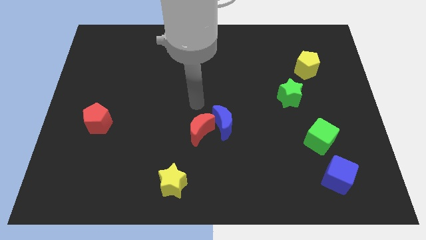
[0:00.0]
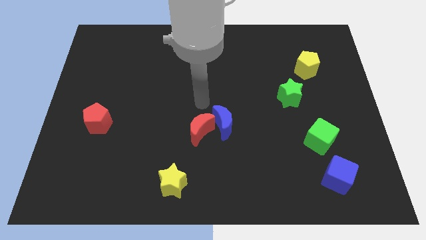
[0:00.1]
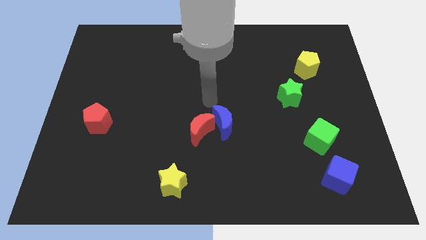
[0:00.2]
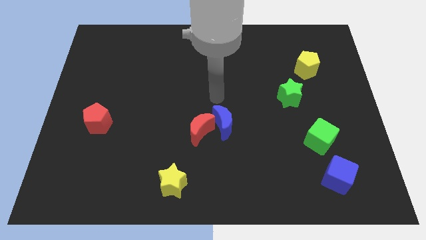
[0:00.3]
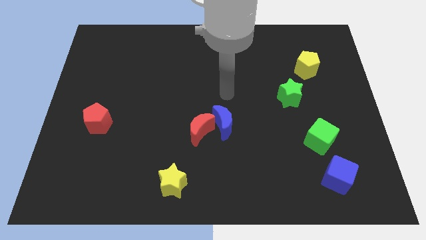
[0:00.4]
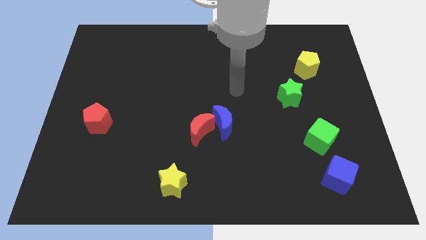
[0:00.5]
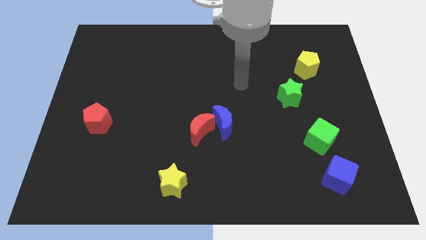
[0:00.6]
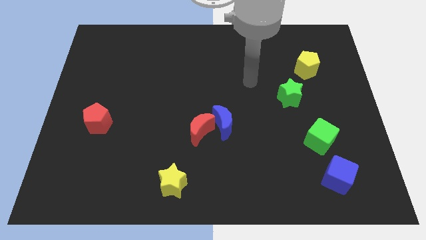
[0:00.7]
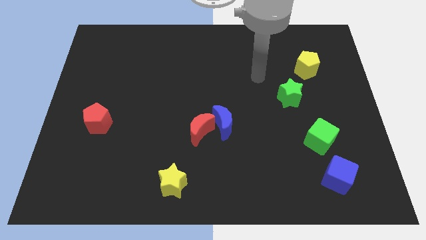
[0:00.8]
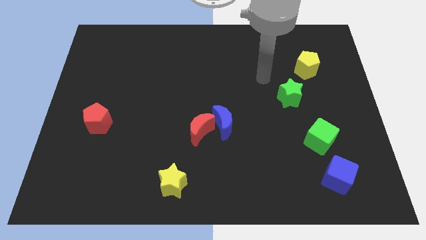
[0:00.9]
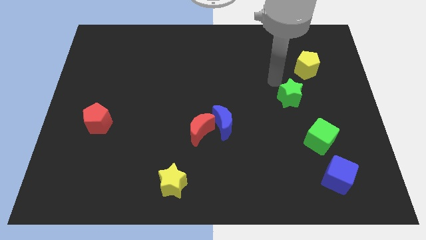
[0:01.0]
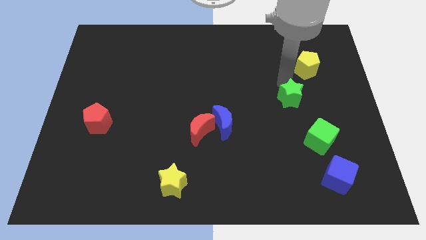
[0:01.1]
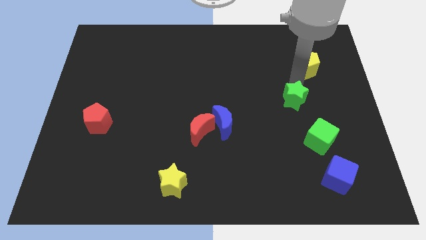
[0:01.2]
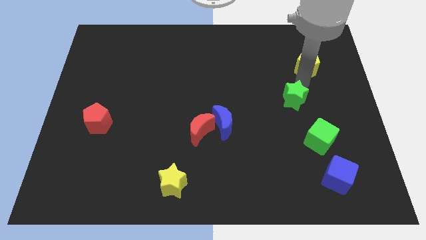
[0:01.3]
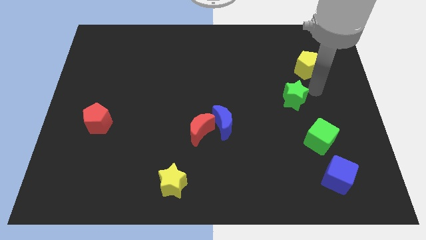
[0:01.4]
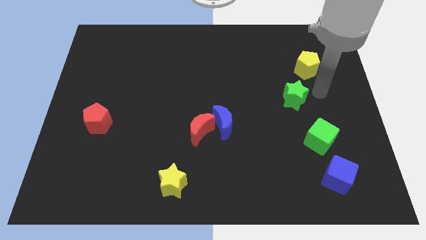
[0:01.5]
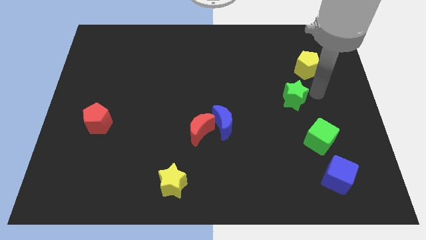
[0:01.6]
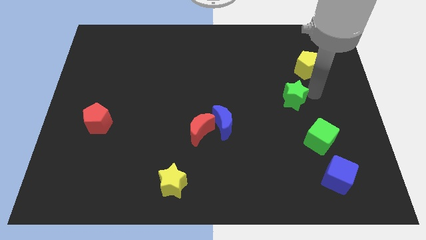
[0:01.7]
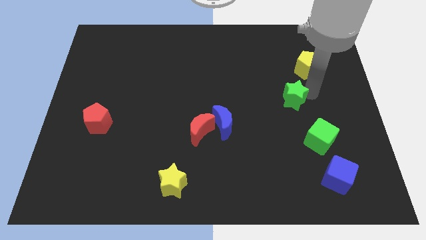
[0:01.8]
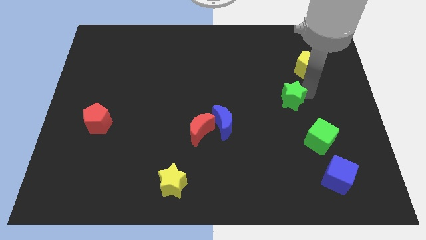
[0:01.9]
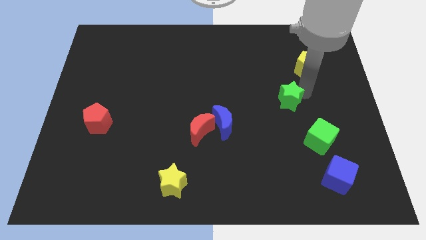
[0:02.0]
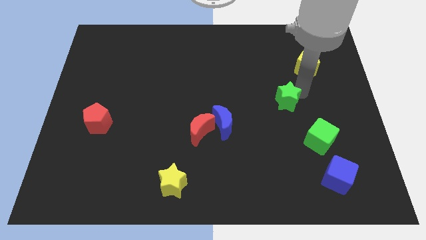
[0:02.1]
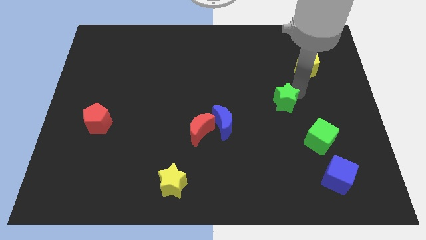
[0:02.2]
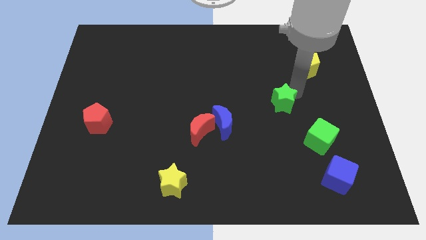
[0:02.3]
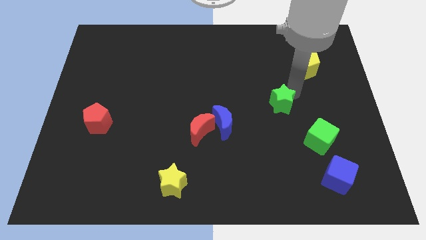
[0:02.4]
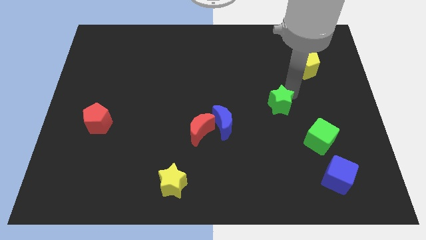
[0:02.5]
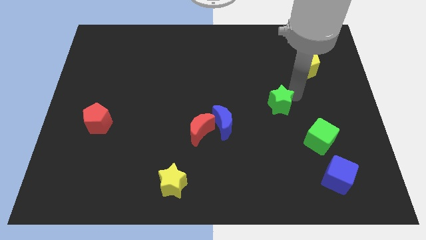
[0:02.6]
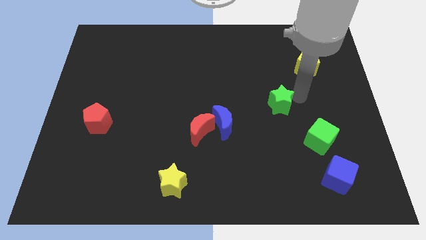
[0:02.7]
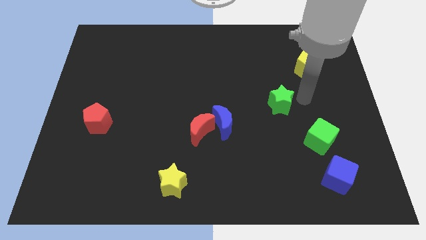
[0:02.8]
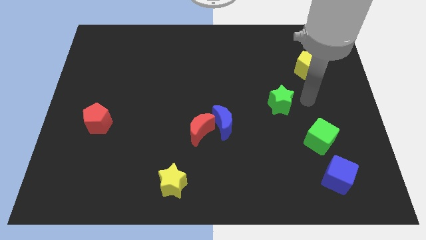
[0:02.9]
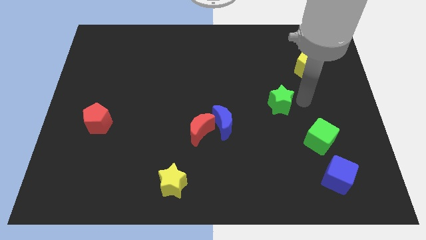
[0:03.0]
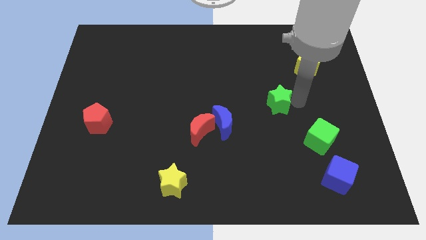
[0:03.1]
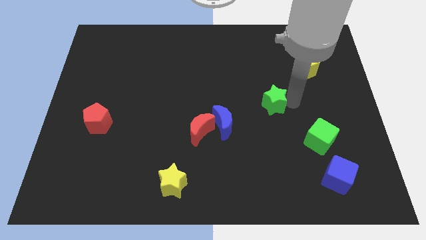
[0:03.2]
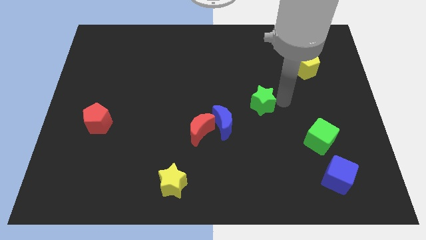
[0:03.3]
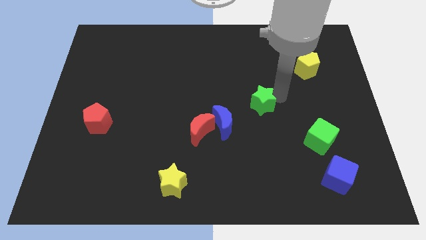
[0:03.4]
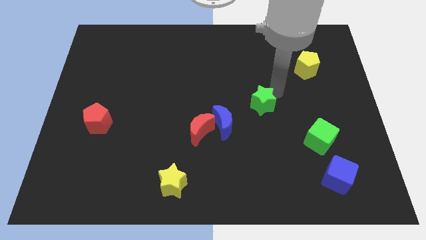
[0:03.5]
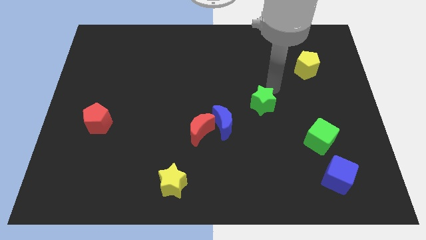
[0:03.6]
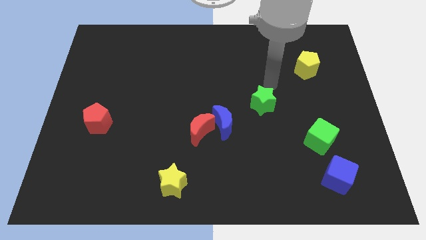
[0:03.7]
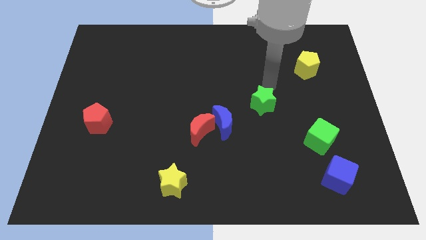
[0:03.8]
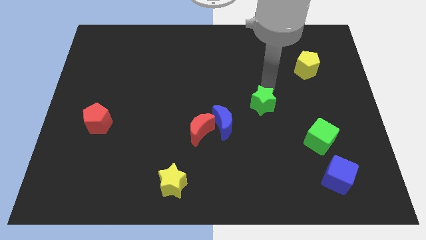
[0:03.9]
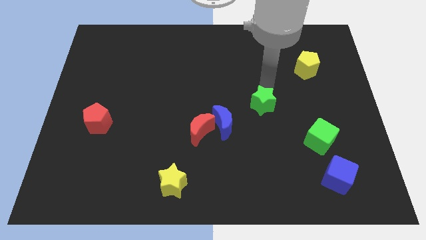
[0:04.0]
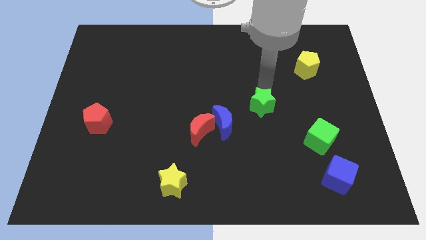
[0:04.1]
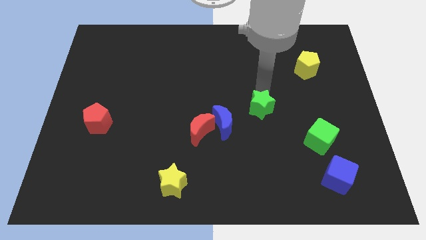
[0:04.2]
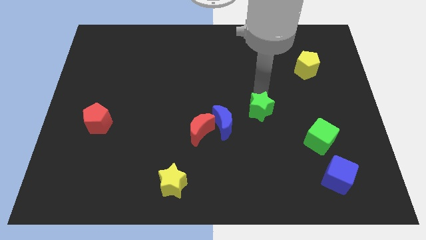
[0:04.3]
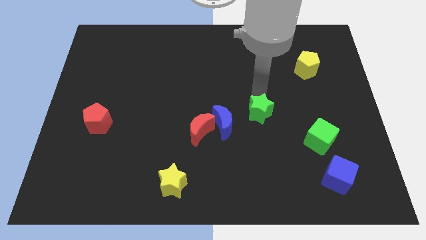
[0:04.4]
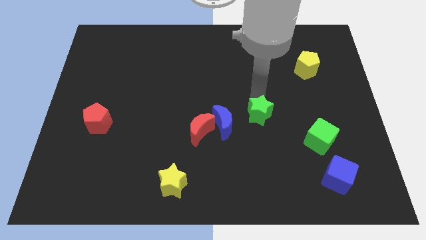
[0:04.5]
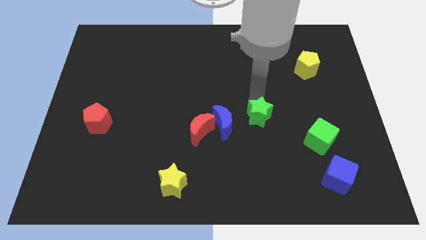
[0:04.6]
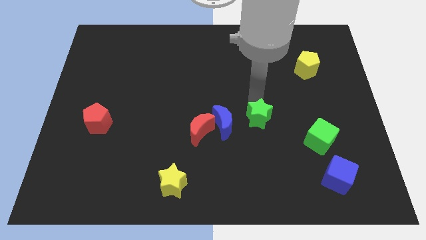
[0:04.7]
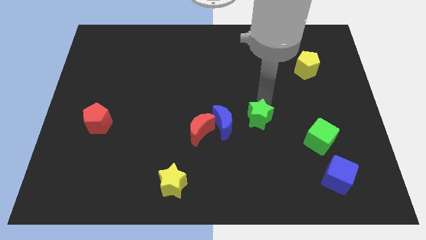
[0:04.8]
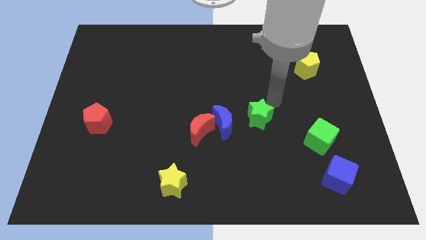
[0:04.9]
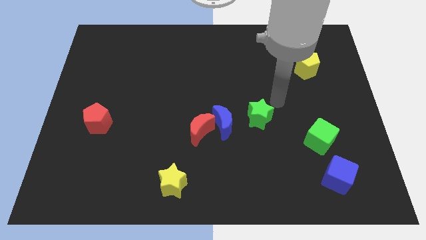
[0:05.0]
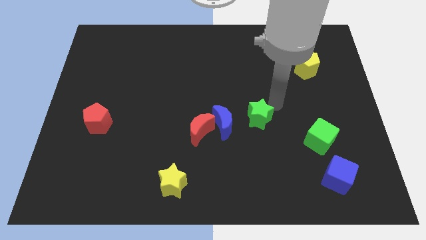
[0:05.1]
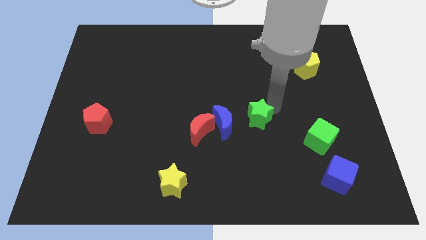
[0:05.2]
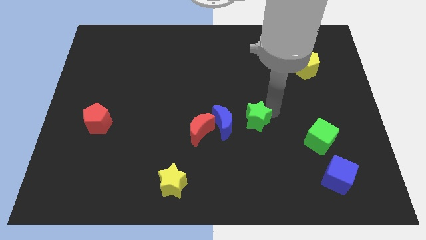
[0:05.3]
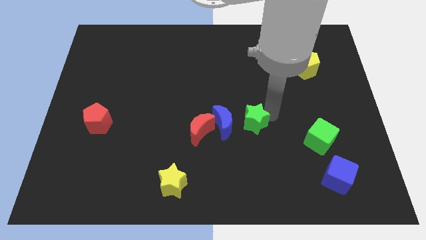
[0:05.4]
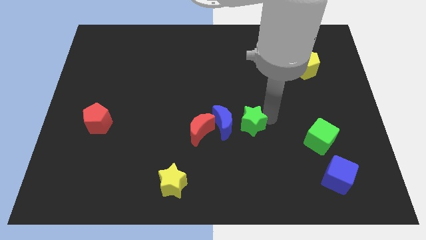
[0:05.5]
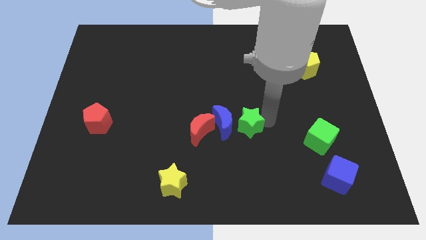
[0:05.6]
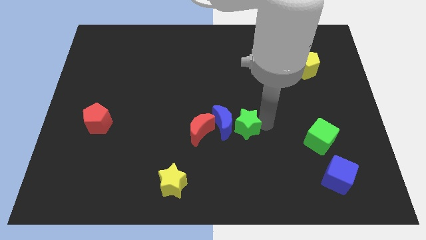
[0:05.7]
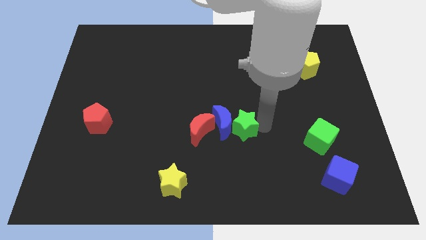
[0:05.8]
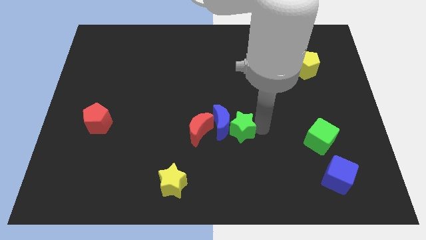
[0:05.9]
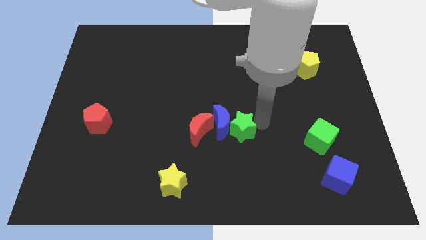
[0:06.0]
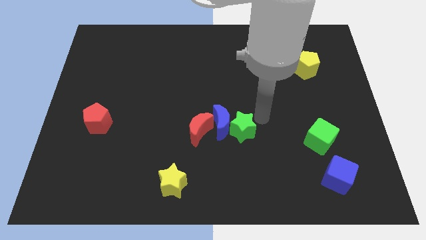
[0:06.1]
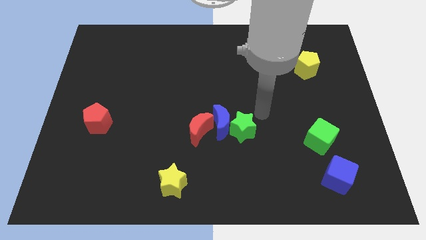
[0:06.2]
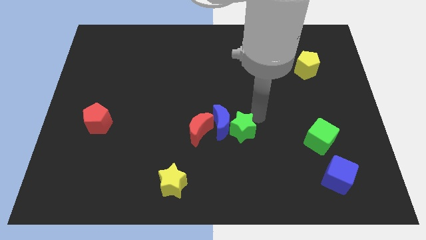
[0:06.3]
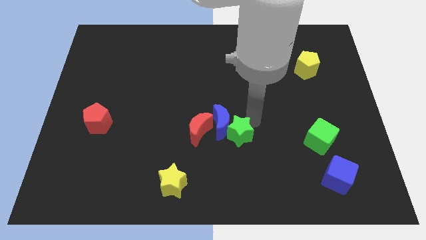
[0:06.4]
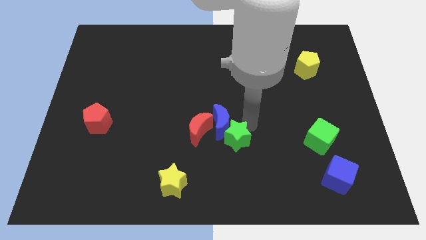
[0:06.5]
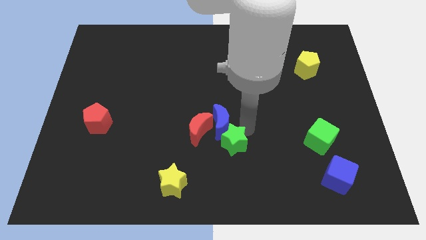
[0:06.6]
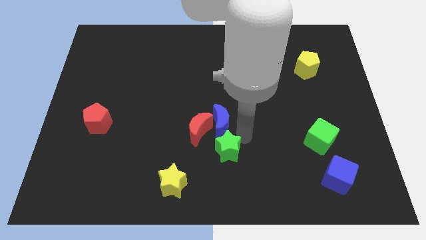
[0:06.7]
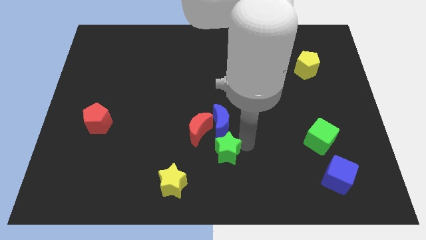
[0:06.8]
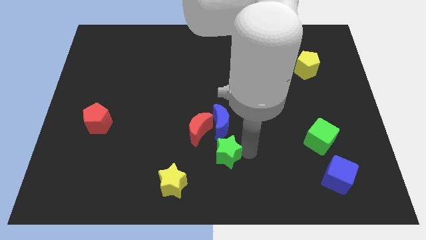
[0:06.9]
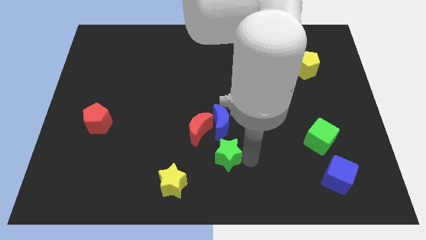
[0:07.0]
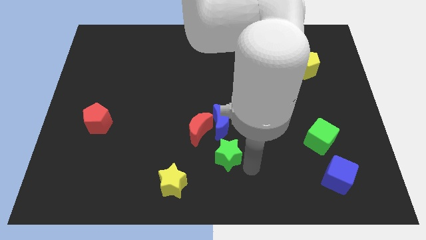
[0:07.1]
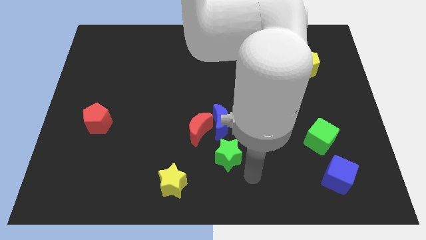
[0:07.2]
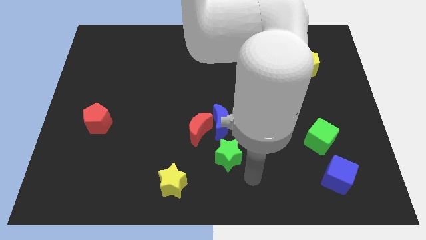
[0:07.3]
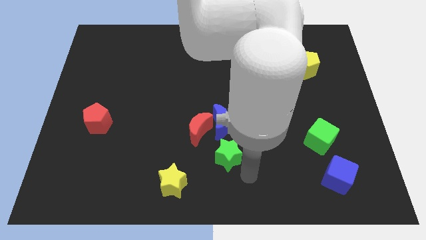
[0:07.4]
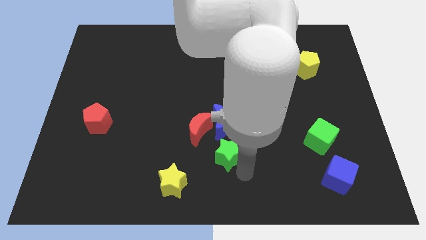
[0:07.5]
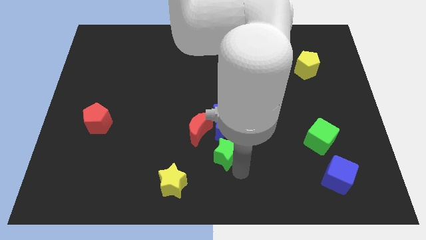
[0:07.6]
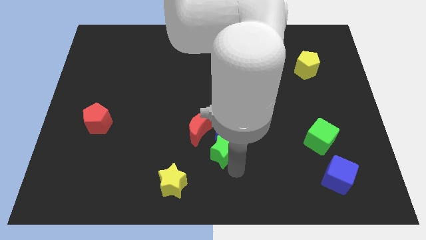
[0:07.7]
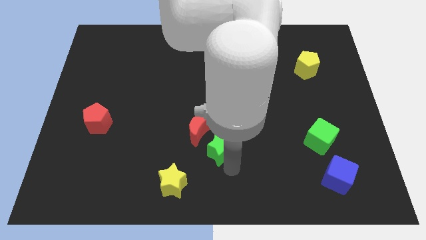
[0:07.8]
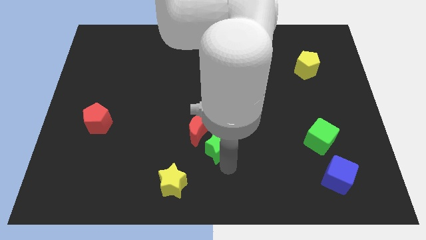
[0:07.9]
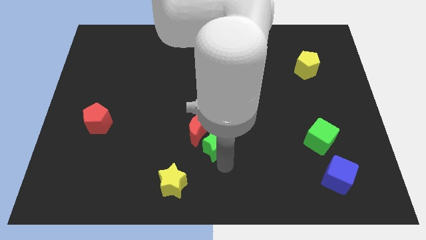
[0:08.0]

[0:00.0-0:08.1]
put the green star towards the red moon
